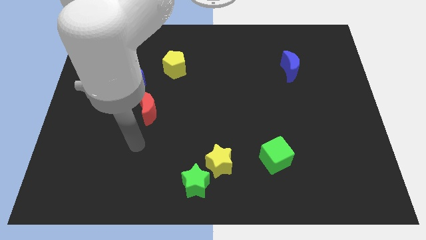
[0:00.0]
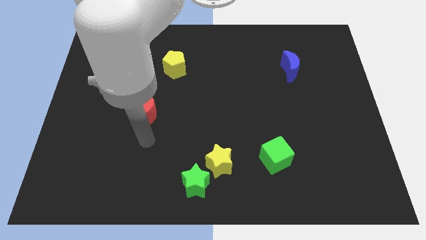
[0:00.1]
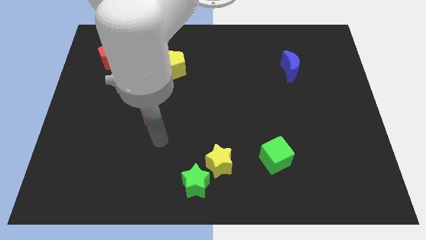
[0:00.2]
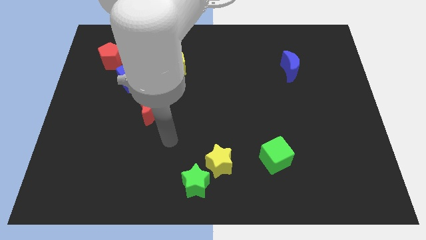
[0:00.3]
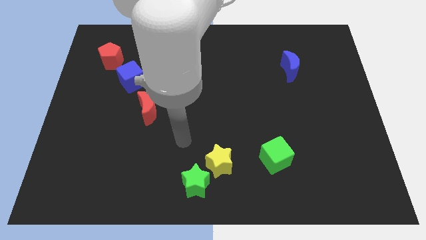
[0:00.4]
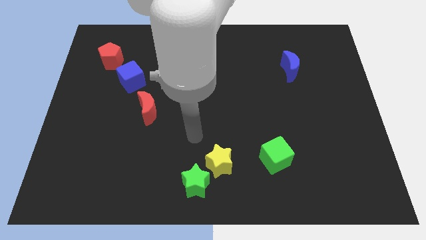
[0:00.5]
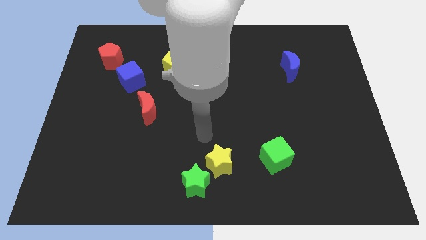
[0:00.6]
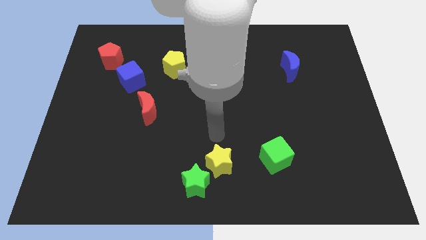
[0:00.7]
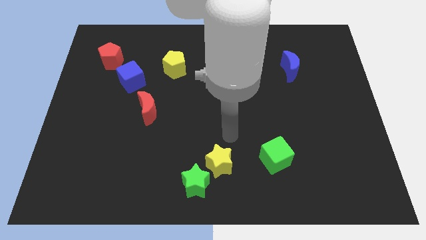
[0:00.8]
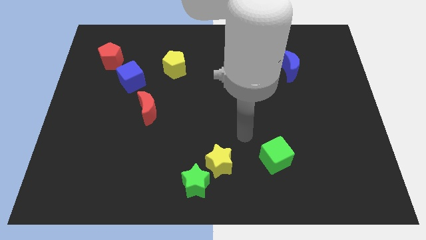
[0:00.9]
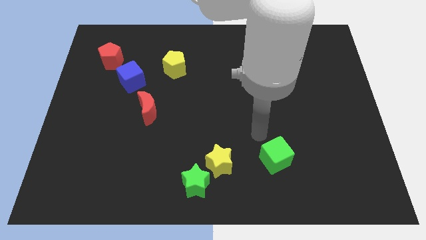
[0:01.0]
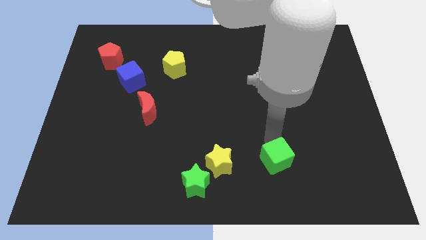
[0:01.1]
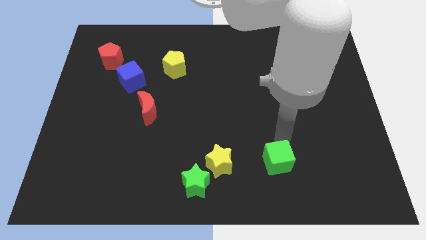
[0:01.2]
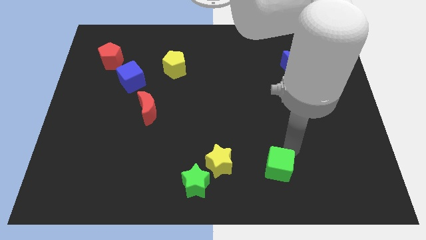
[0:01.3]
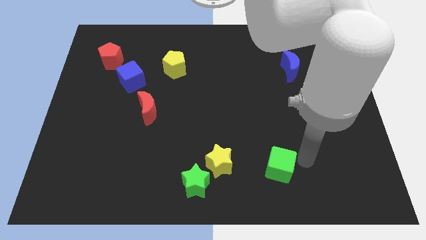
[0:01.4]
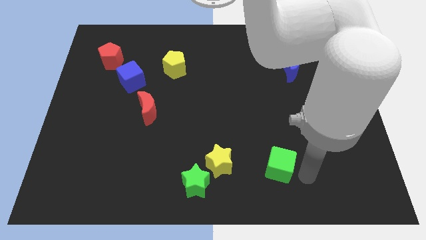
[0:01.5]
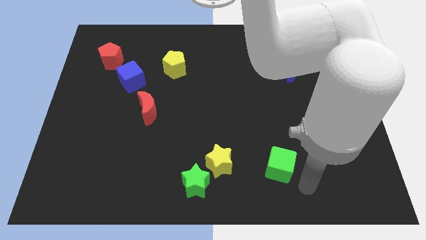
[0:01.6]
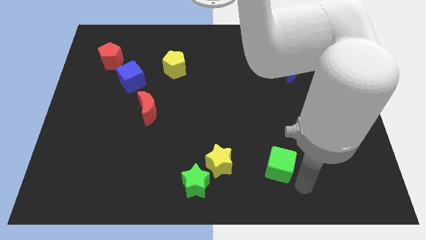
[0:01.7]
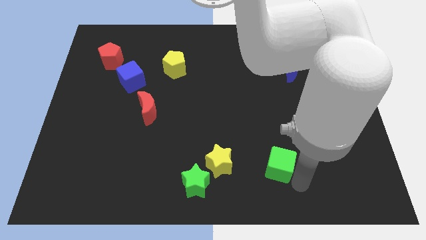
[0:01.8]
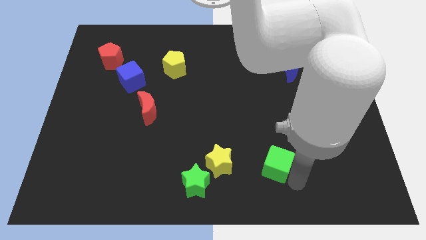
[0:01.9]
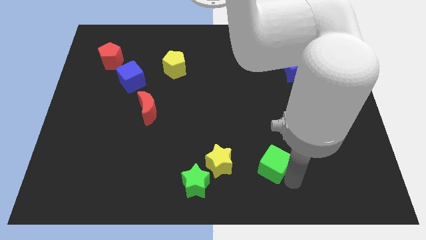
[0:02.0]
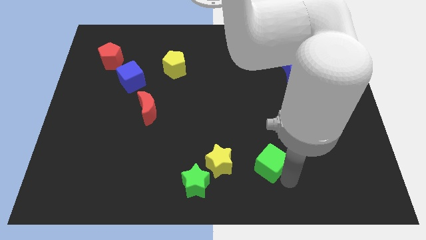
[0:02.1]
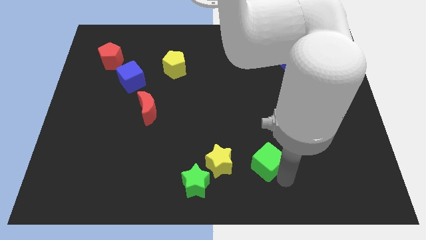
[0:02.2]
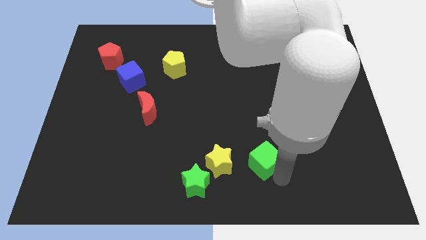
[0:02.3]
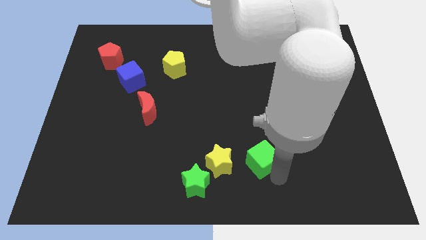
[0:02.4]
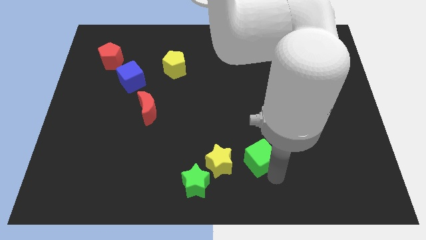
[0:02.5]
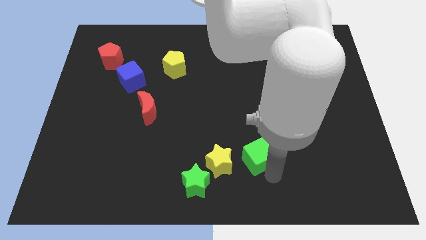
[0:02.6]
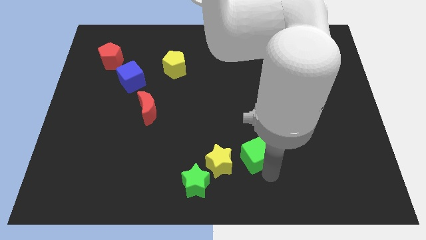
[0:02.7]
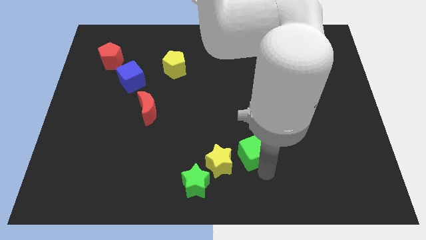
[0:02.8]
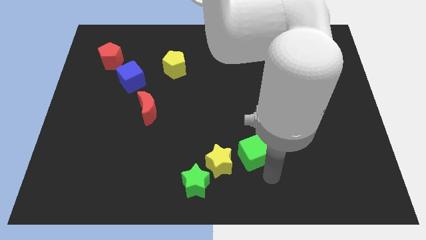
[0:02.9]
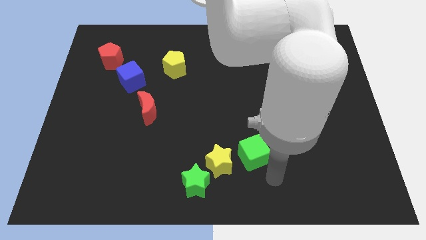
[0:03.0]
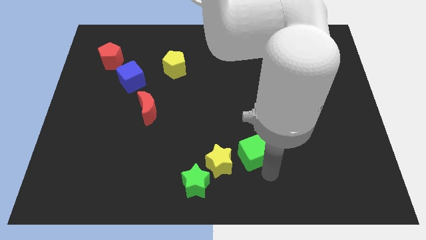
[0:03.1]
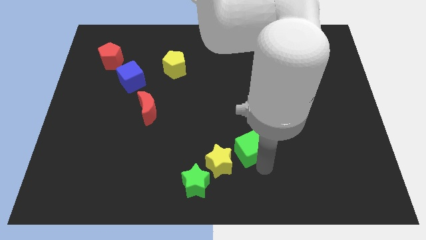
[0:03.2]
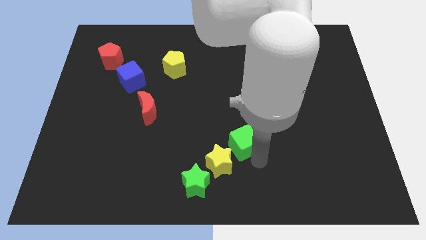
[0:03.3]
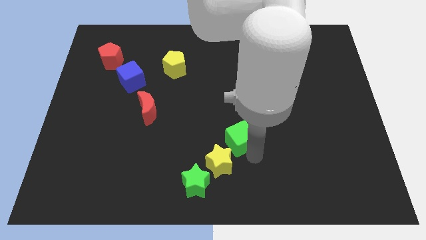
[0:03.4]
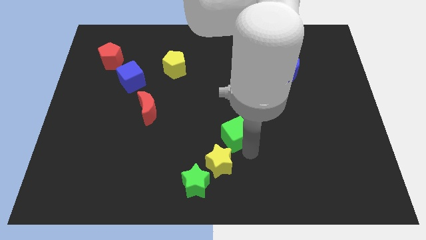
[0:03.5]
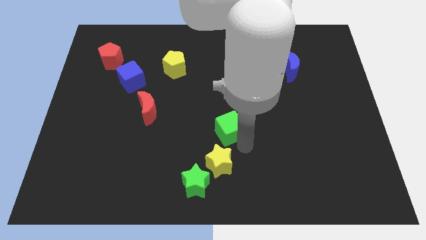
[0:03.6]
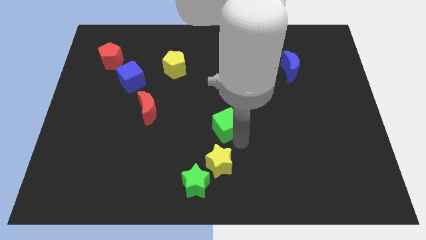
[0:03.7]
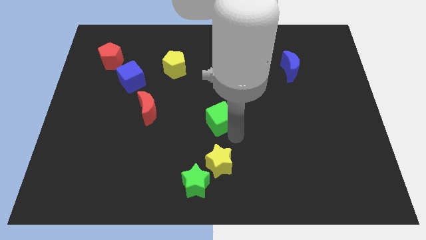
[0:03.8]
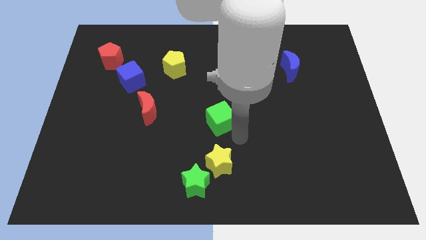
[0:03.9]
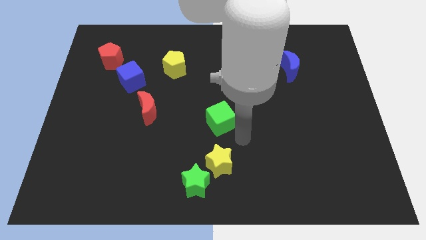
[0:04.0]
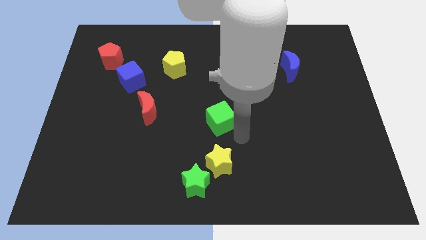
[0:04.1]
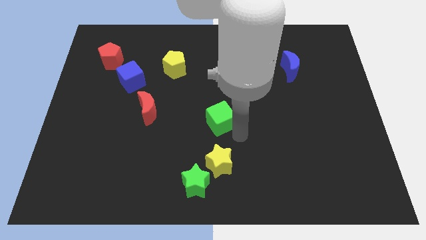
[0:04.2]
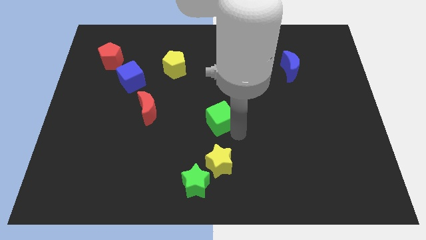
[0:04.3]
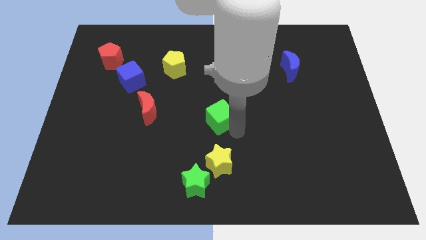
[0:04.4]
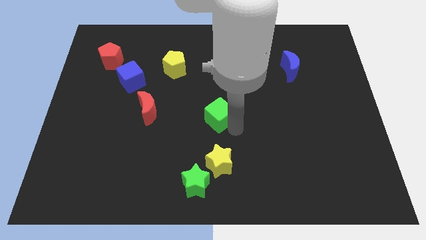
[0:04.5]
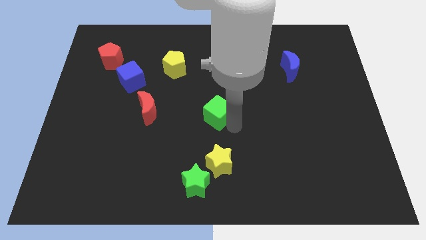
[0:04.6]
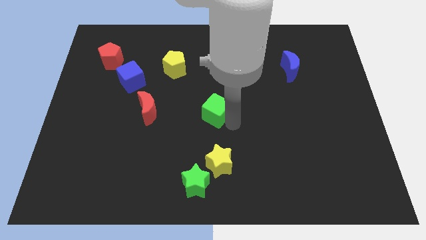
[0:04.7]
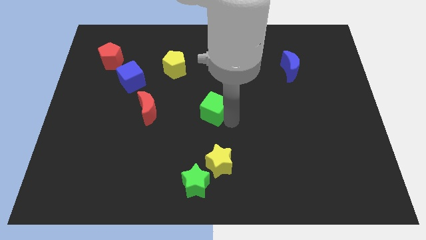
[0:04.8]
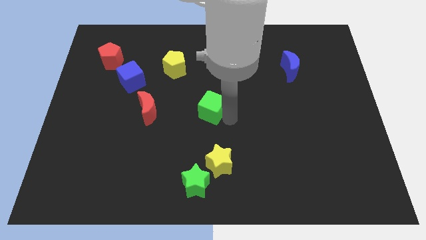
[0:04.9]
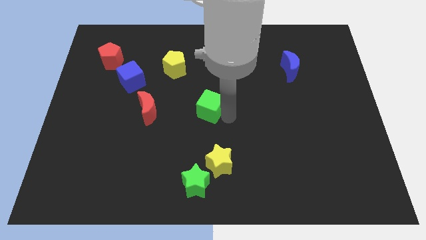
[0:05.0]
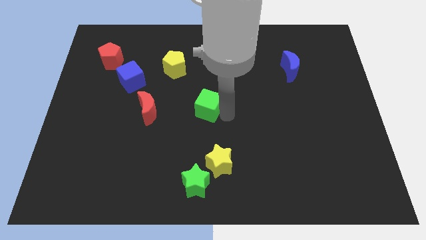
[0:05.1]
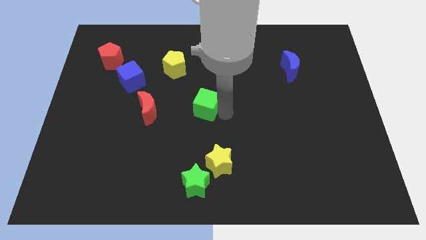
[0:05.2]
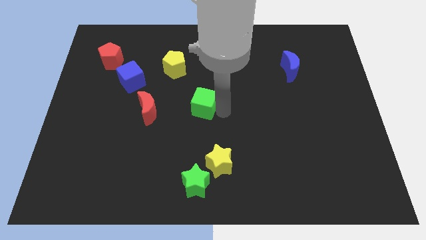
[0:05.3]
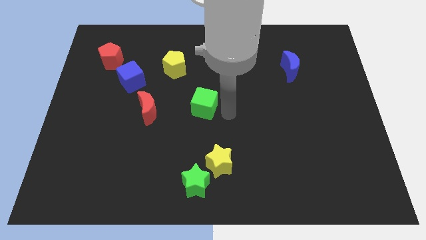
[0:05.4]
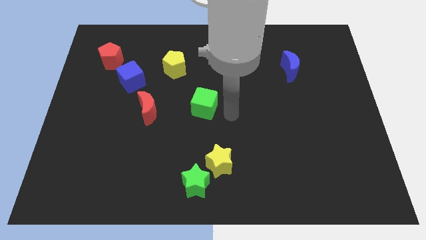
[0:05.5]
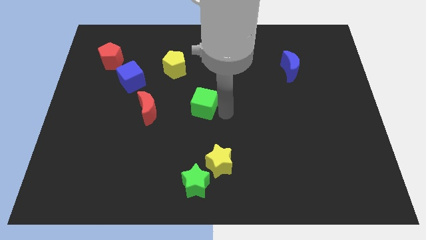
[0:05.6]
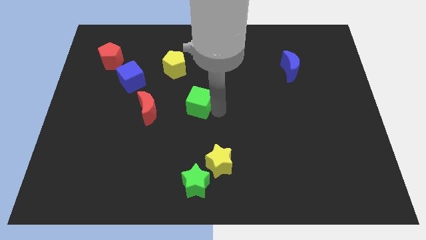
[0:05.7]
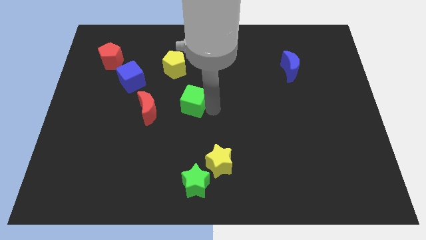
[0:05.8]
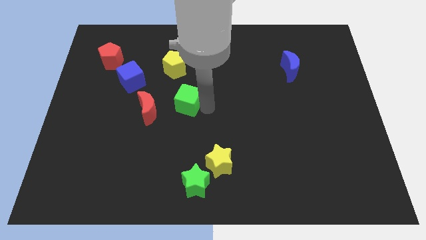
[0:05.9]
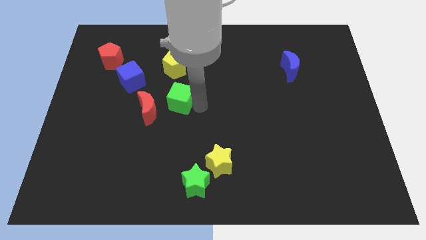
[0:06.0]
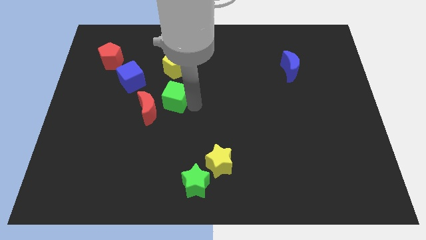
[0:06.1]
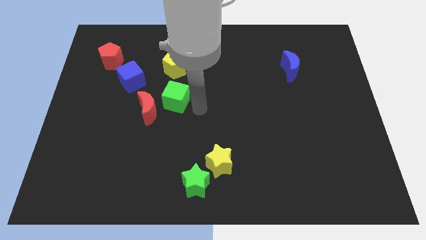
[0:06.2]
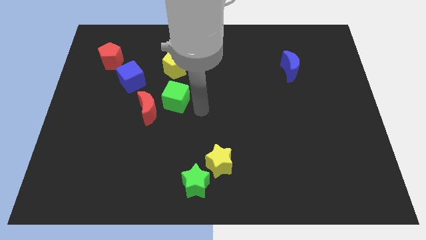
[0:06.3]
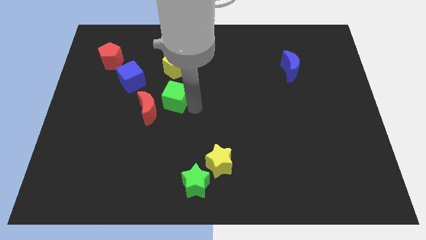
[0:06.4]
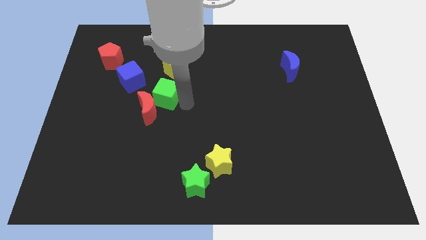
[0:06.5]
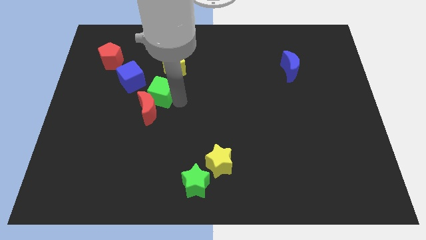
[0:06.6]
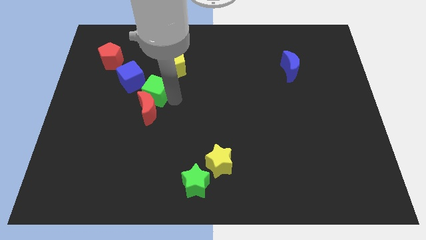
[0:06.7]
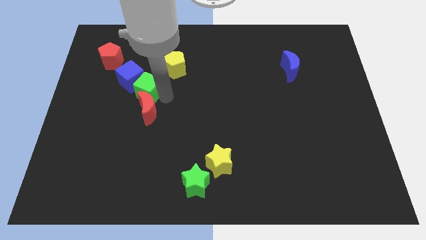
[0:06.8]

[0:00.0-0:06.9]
move the green cube next to the blue cube
